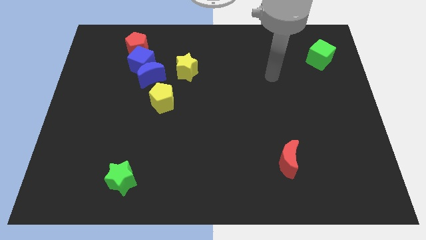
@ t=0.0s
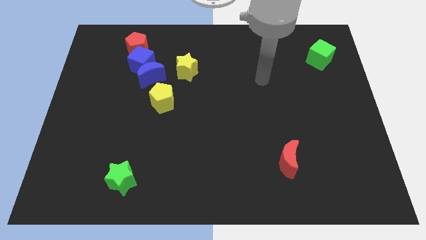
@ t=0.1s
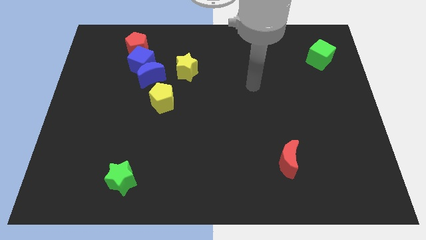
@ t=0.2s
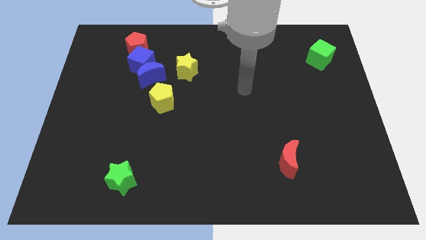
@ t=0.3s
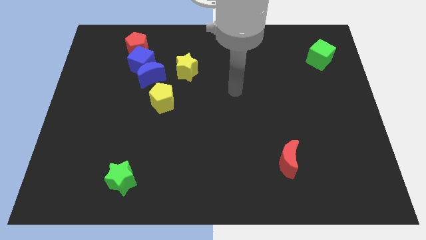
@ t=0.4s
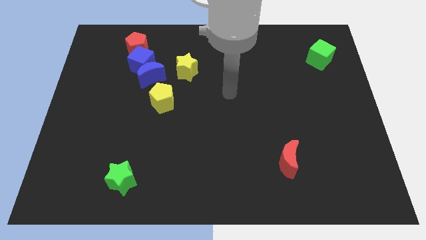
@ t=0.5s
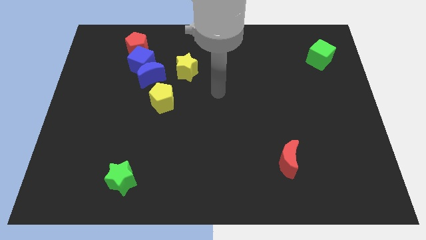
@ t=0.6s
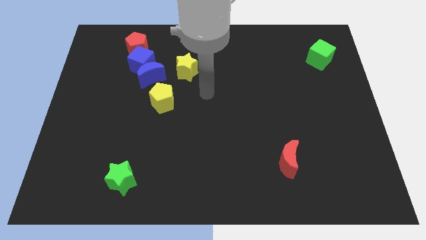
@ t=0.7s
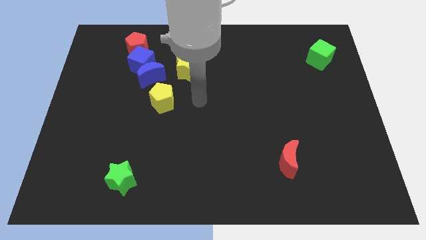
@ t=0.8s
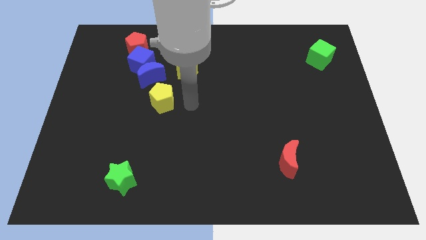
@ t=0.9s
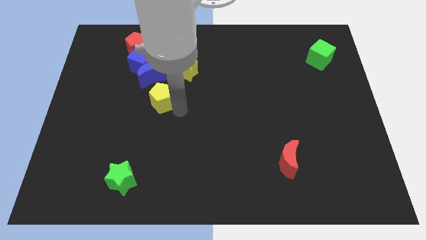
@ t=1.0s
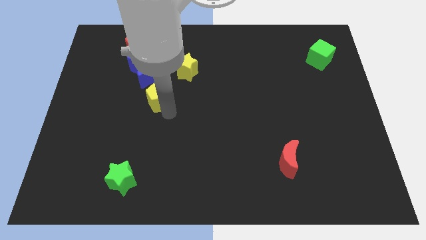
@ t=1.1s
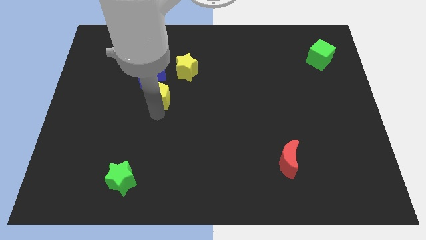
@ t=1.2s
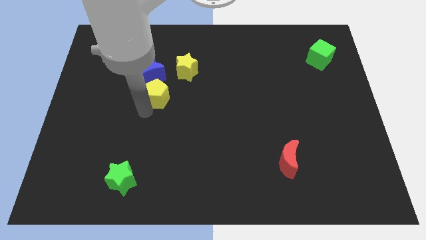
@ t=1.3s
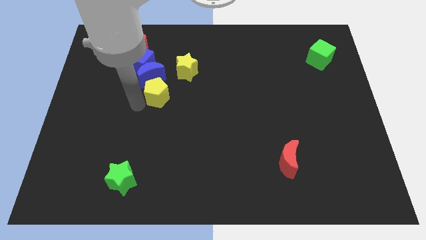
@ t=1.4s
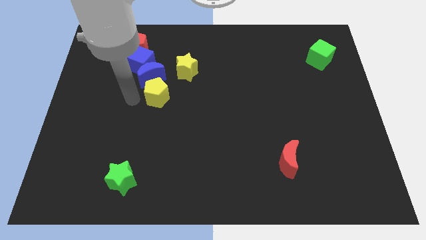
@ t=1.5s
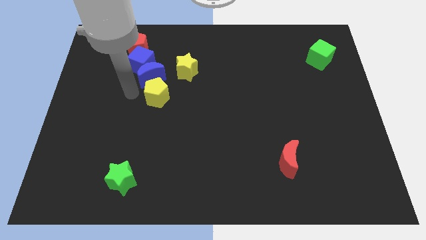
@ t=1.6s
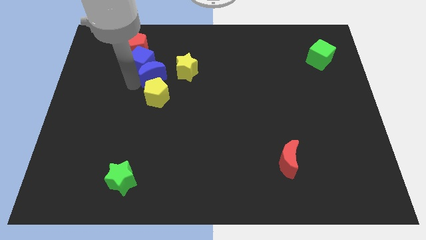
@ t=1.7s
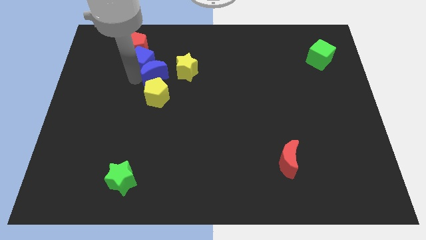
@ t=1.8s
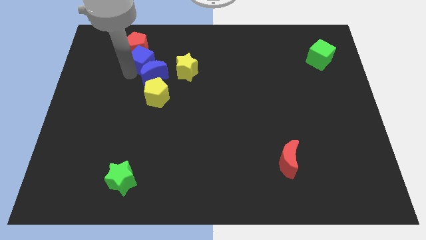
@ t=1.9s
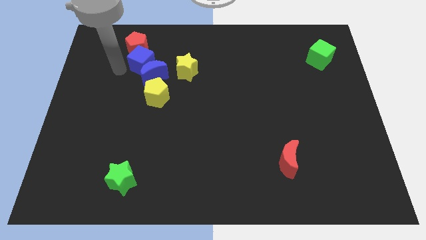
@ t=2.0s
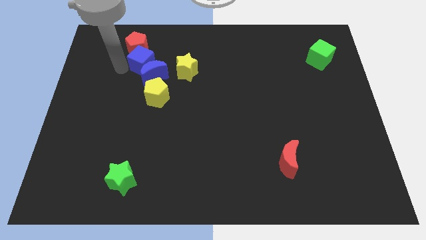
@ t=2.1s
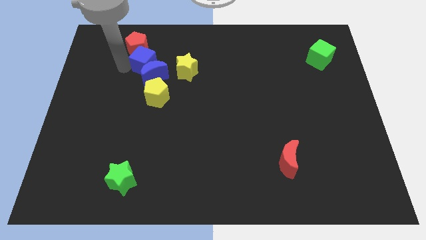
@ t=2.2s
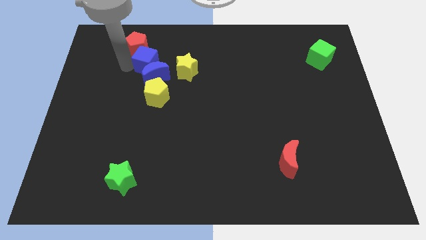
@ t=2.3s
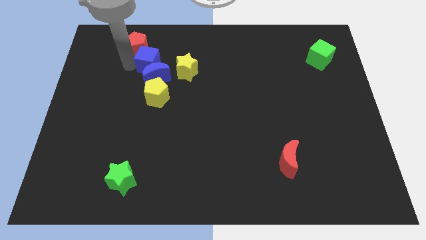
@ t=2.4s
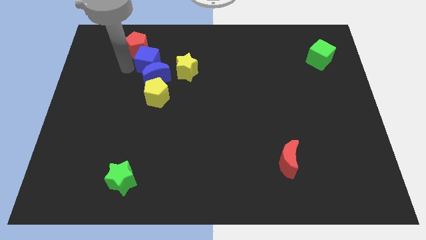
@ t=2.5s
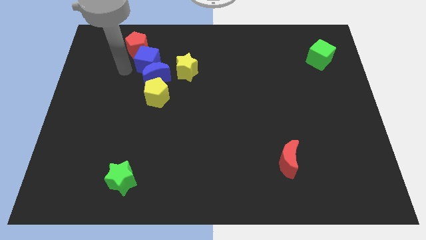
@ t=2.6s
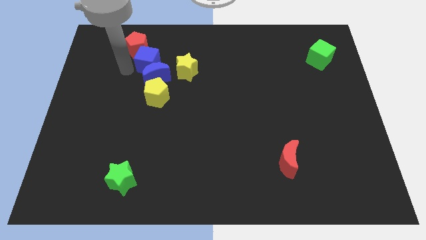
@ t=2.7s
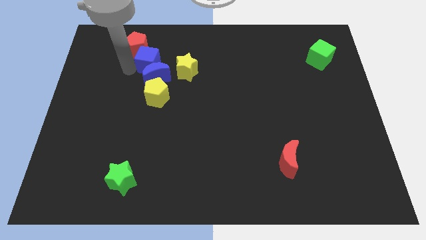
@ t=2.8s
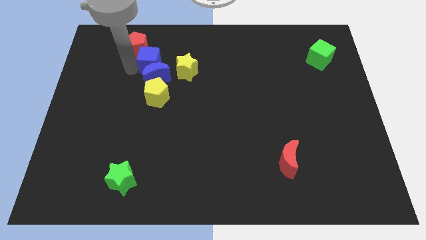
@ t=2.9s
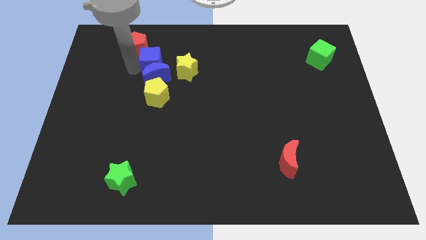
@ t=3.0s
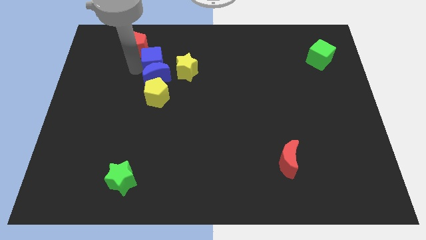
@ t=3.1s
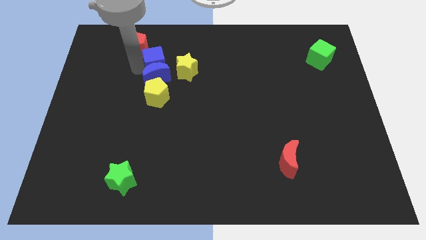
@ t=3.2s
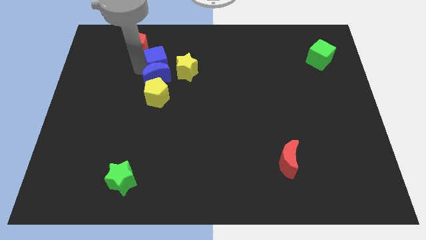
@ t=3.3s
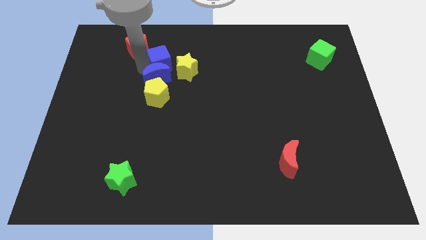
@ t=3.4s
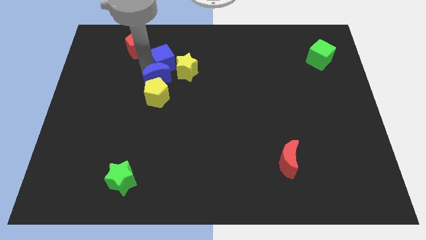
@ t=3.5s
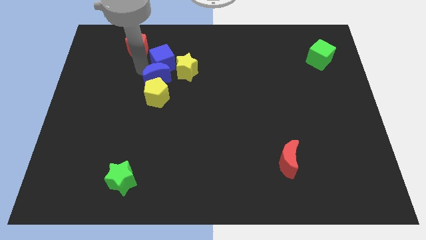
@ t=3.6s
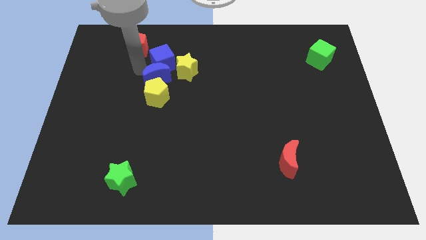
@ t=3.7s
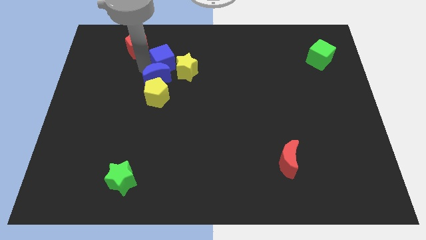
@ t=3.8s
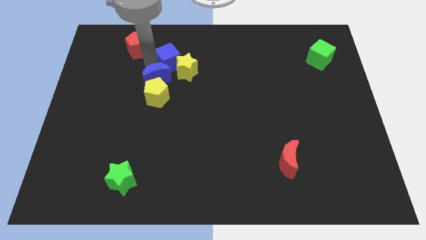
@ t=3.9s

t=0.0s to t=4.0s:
slightly slide the blue cube right

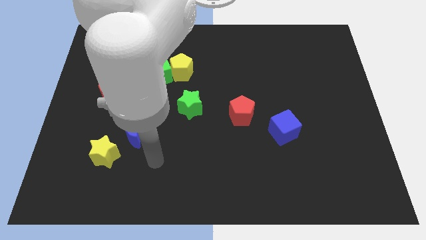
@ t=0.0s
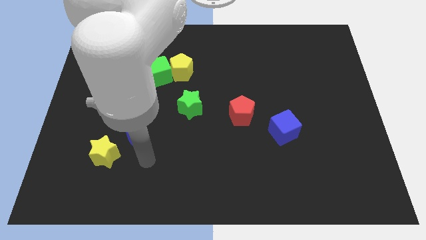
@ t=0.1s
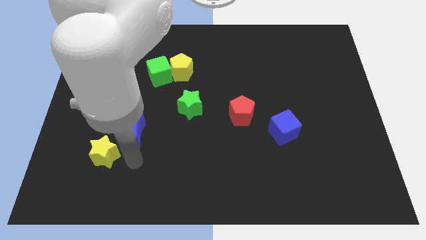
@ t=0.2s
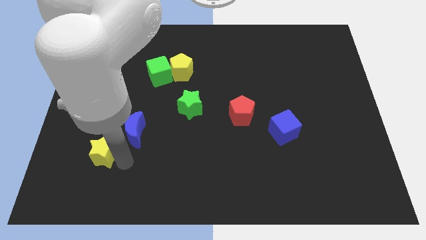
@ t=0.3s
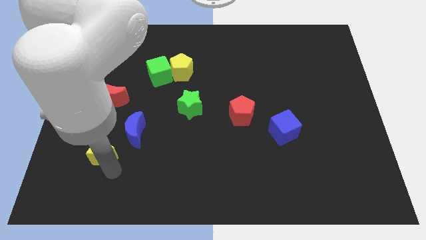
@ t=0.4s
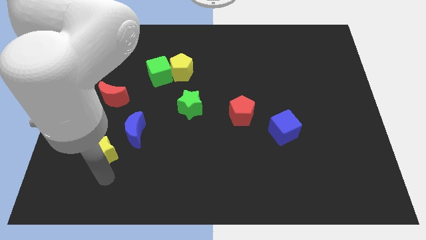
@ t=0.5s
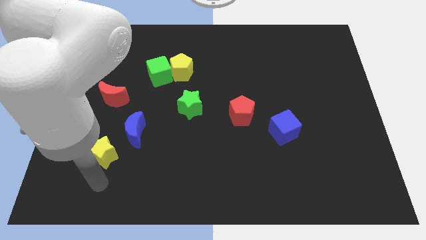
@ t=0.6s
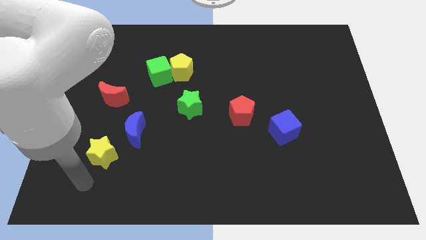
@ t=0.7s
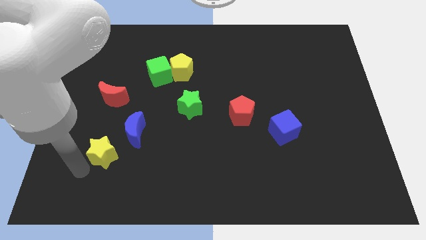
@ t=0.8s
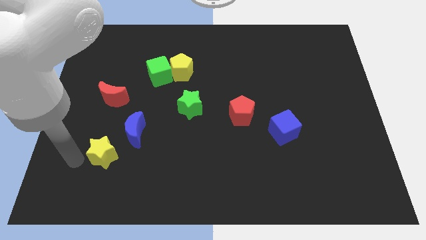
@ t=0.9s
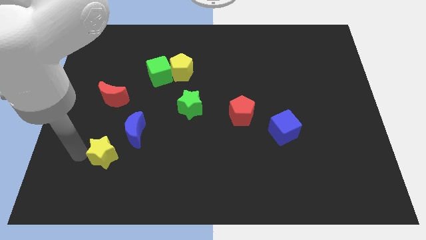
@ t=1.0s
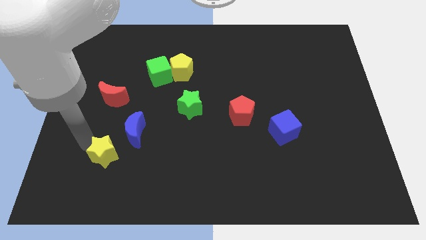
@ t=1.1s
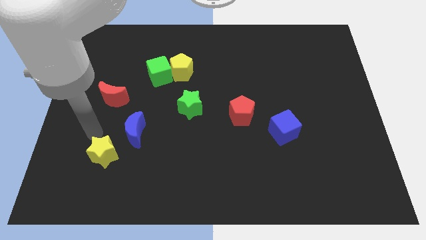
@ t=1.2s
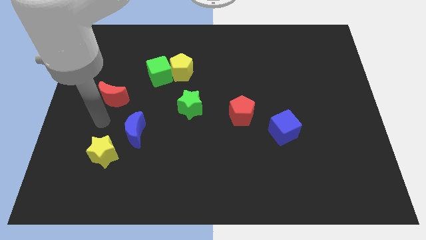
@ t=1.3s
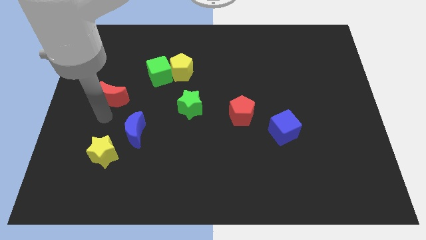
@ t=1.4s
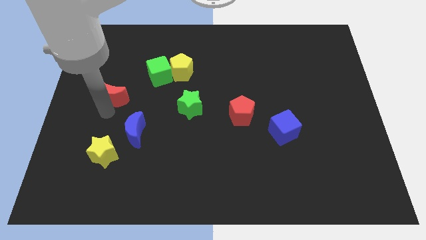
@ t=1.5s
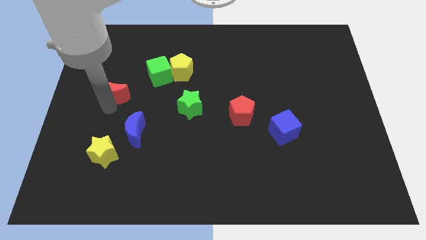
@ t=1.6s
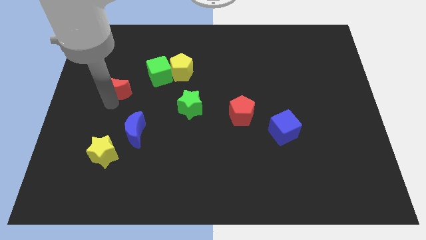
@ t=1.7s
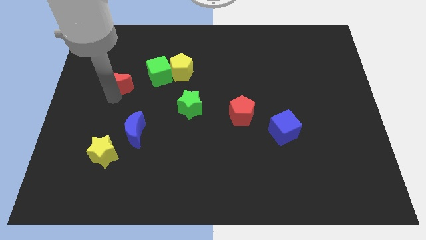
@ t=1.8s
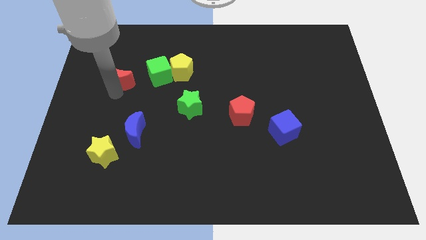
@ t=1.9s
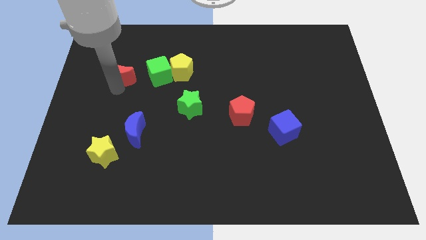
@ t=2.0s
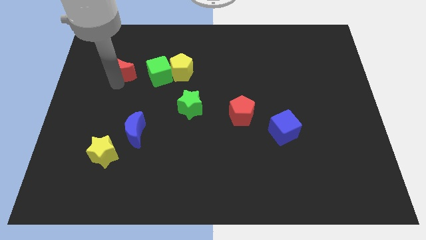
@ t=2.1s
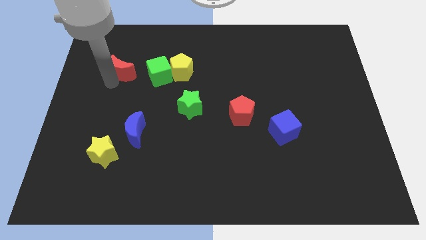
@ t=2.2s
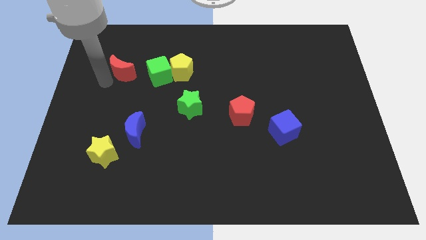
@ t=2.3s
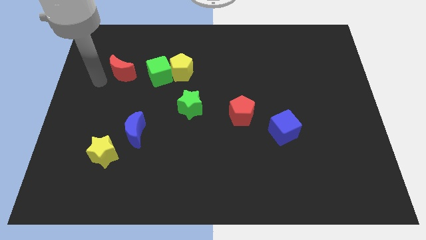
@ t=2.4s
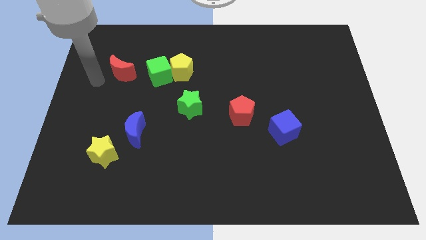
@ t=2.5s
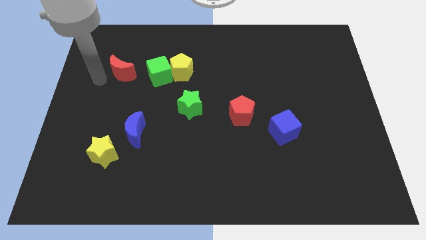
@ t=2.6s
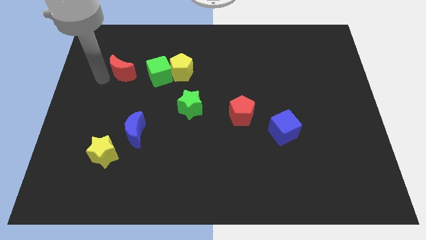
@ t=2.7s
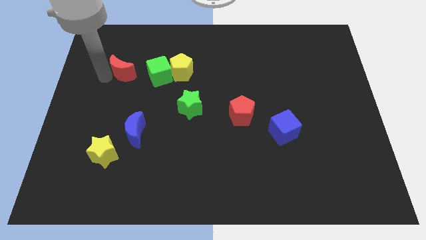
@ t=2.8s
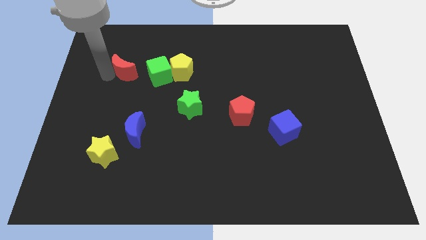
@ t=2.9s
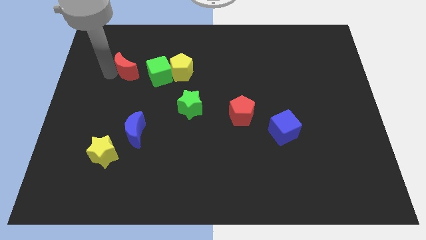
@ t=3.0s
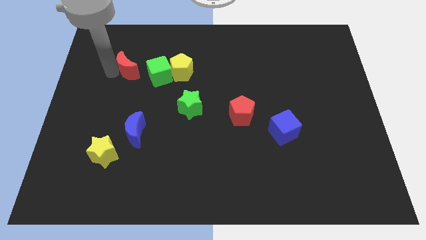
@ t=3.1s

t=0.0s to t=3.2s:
slightly push the red moon up and then right

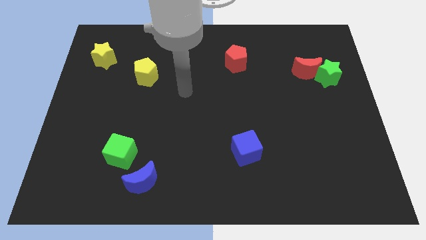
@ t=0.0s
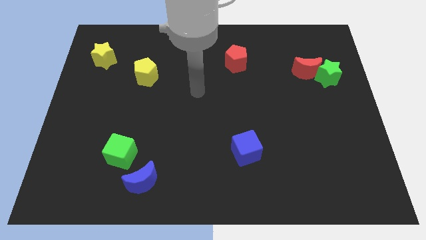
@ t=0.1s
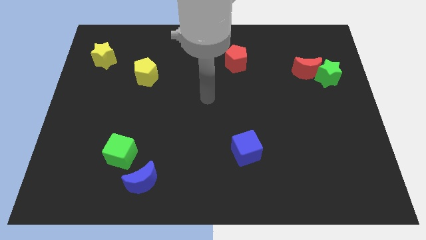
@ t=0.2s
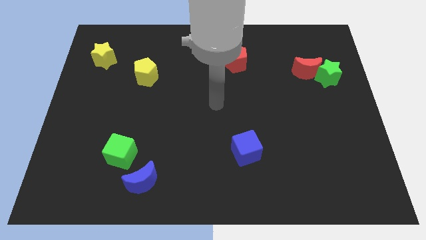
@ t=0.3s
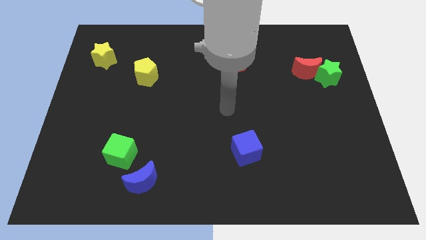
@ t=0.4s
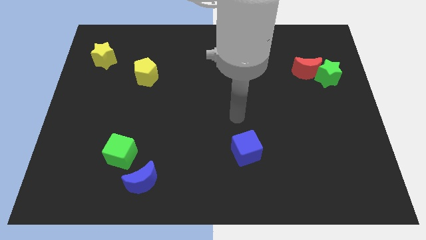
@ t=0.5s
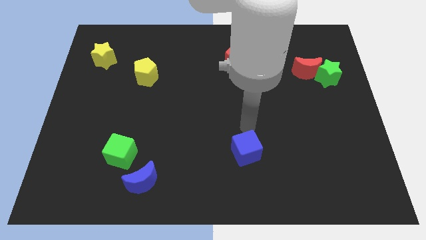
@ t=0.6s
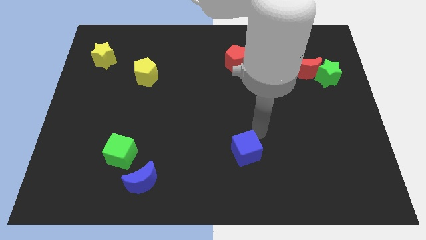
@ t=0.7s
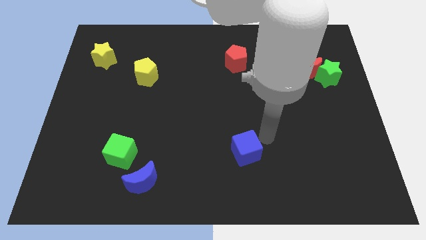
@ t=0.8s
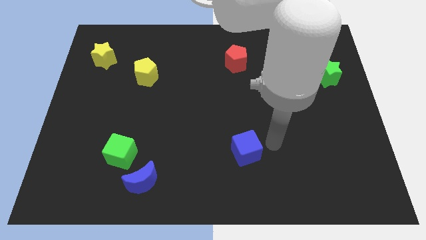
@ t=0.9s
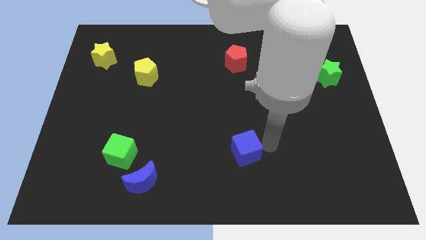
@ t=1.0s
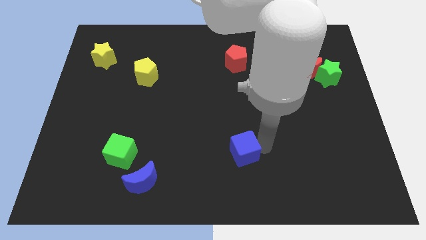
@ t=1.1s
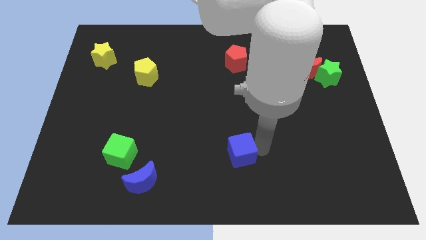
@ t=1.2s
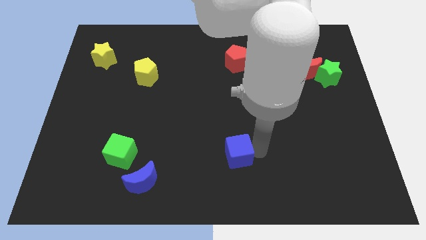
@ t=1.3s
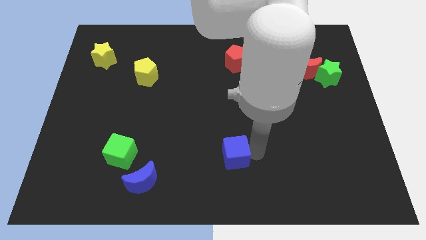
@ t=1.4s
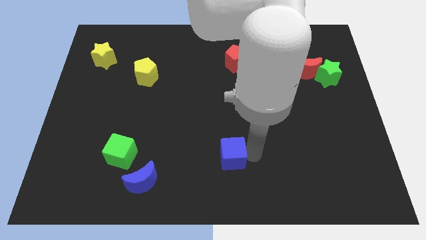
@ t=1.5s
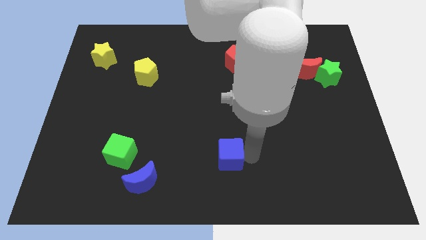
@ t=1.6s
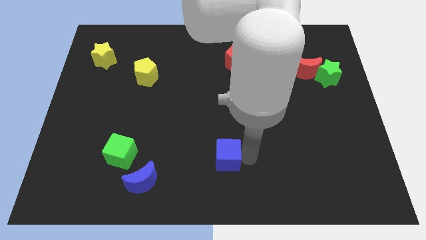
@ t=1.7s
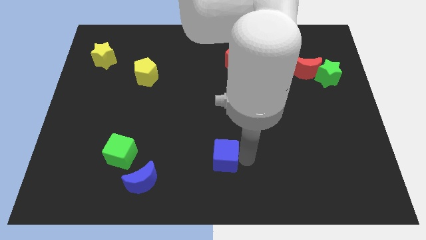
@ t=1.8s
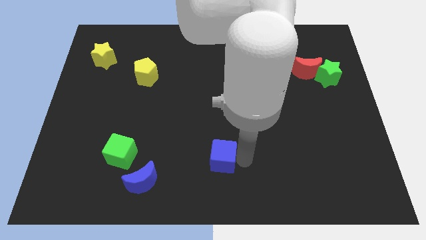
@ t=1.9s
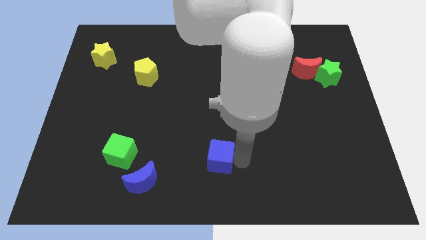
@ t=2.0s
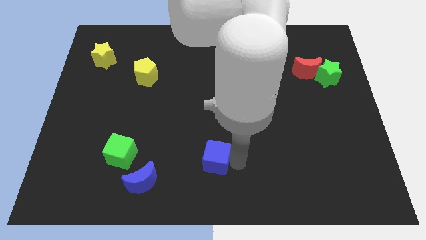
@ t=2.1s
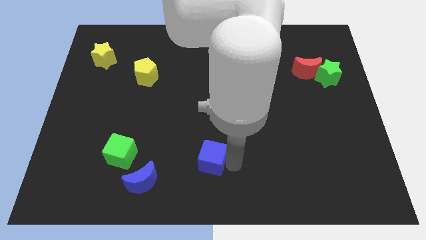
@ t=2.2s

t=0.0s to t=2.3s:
move the blue cube somewhat to the left
